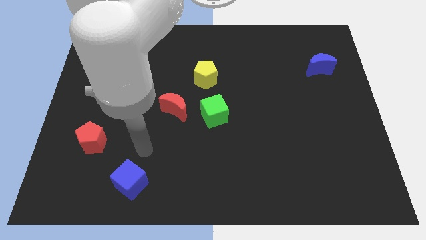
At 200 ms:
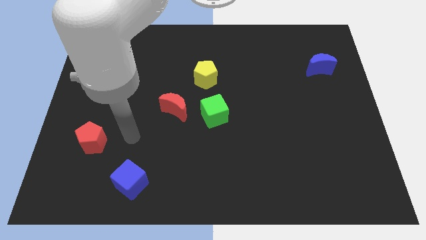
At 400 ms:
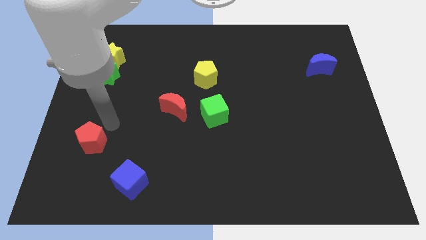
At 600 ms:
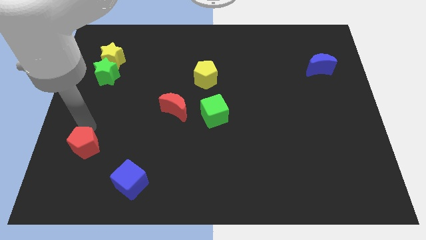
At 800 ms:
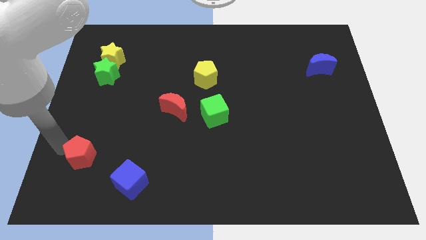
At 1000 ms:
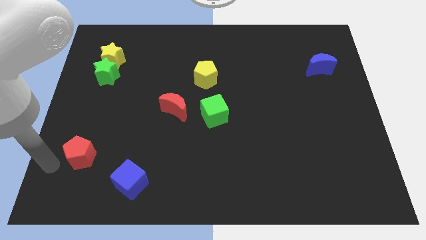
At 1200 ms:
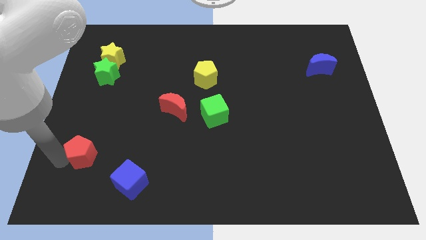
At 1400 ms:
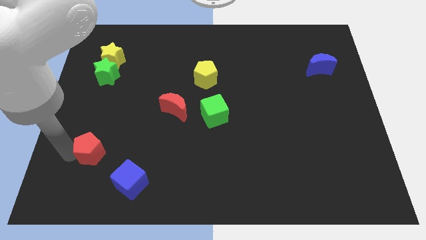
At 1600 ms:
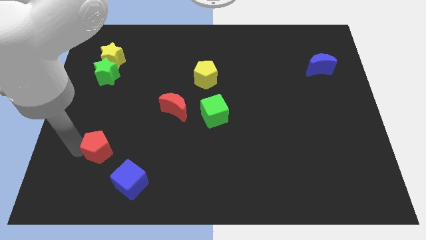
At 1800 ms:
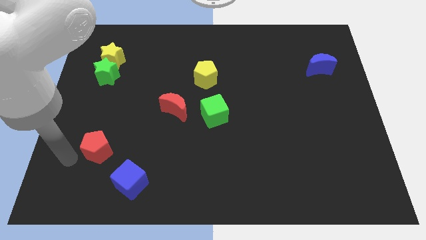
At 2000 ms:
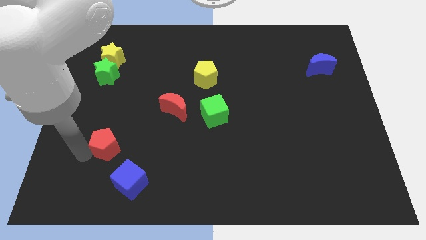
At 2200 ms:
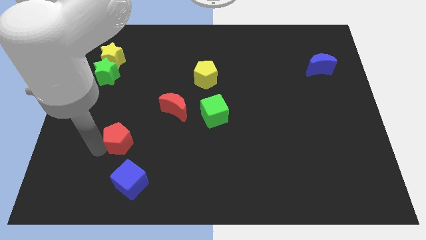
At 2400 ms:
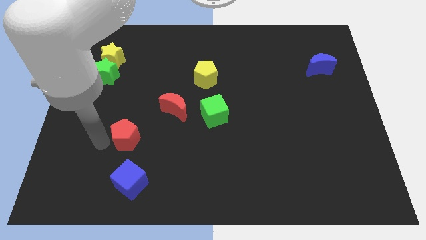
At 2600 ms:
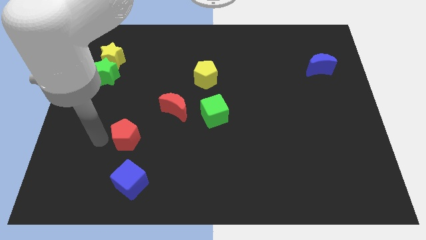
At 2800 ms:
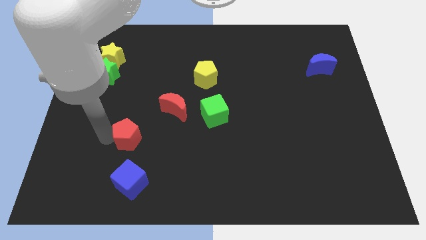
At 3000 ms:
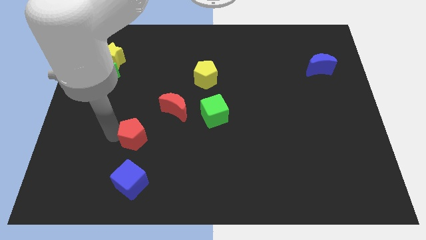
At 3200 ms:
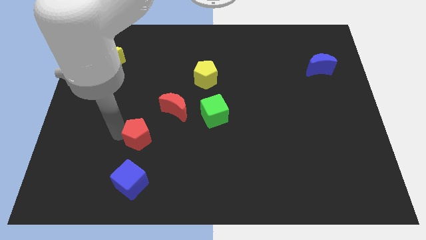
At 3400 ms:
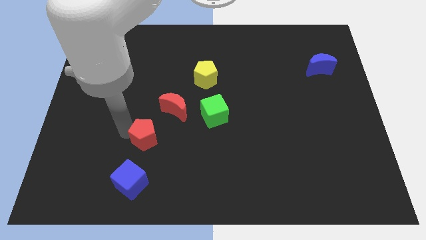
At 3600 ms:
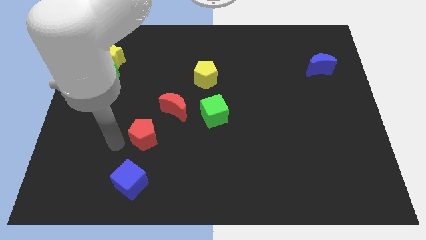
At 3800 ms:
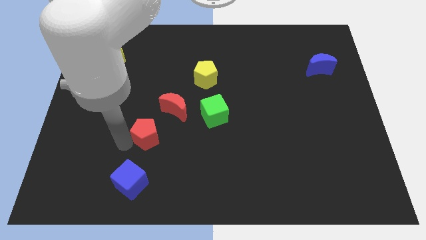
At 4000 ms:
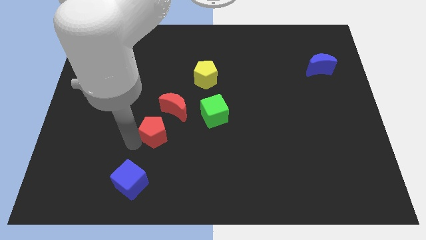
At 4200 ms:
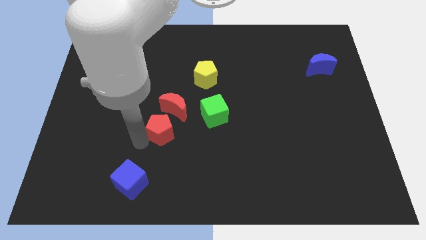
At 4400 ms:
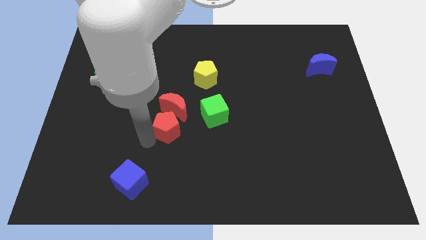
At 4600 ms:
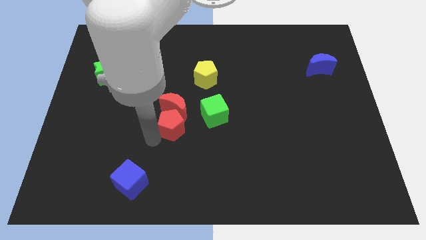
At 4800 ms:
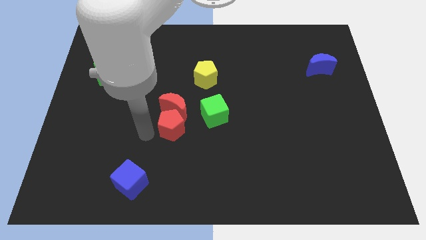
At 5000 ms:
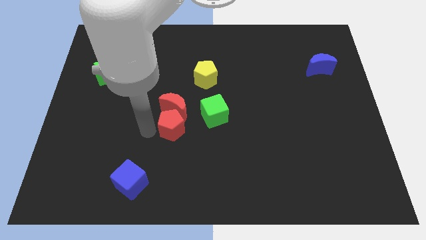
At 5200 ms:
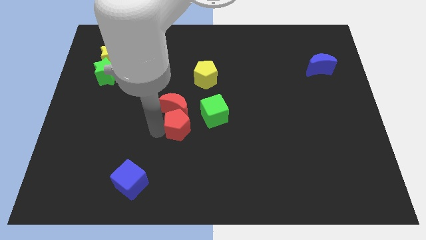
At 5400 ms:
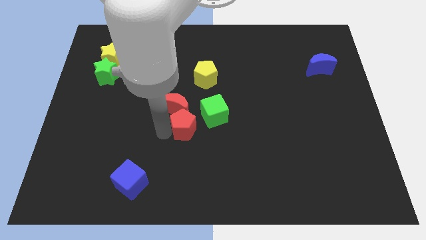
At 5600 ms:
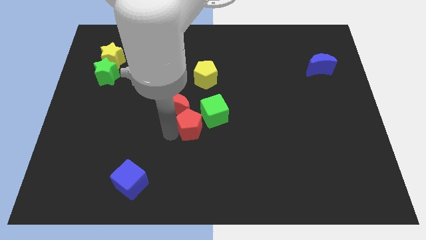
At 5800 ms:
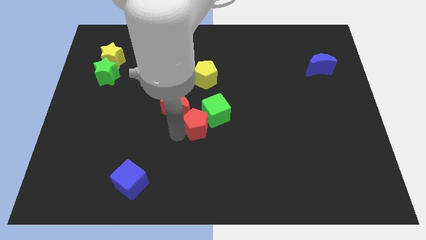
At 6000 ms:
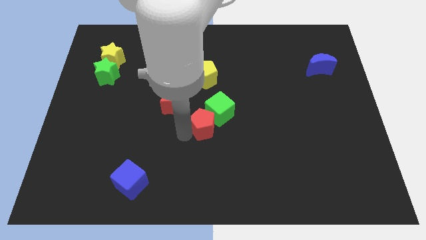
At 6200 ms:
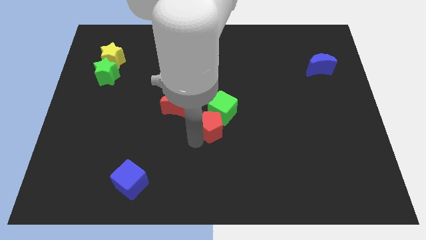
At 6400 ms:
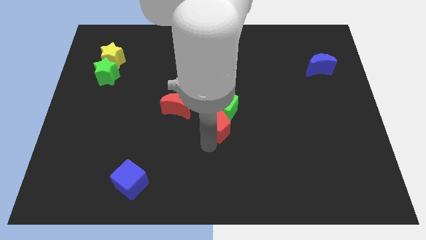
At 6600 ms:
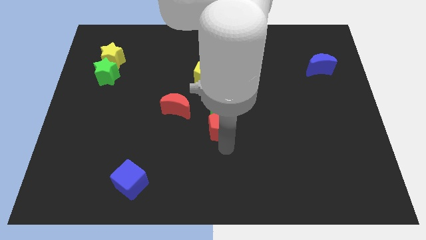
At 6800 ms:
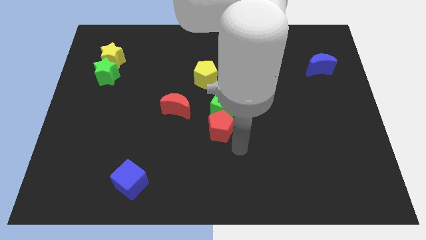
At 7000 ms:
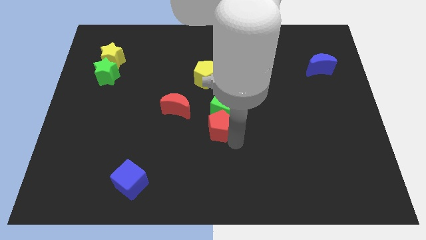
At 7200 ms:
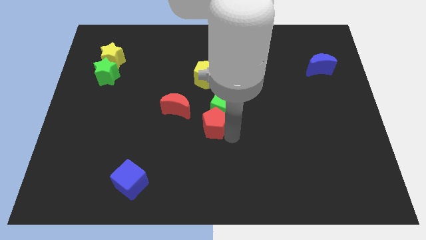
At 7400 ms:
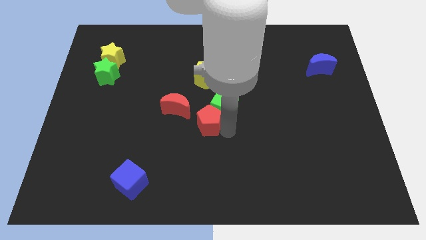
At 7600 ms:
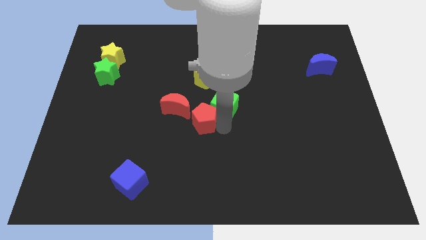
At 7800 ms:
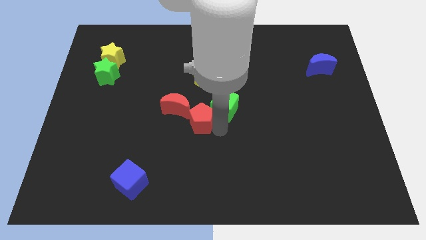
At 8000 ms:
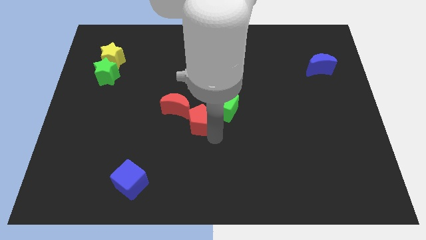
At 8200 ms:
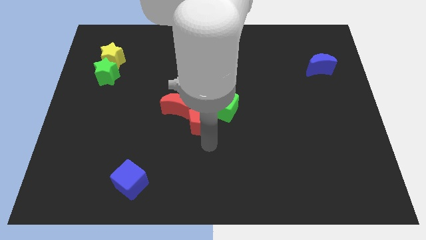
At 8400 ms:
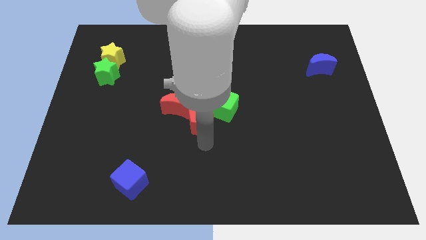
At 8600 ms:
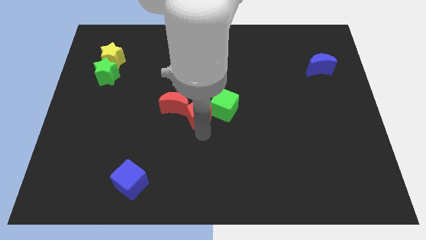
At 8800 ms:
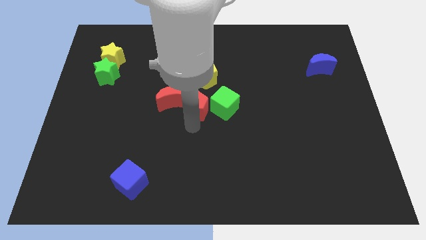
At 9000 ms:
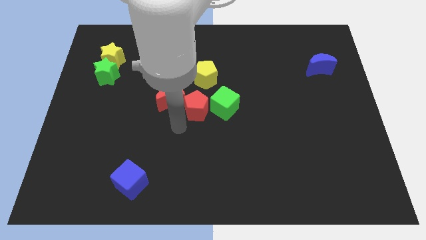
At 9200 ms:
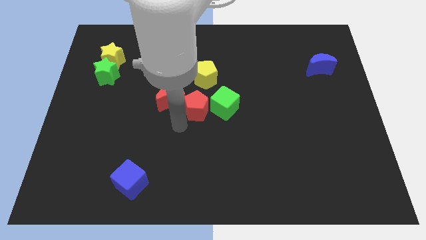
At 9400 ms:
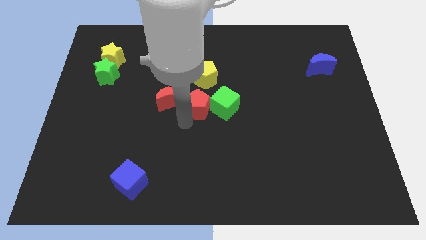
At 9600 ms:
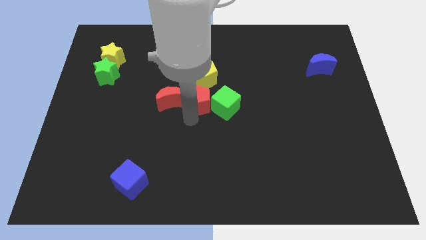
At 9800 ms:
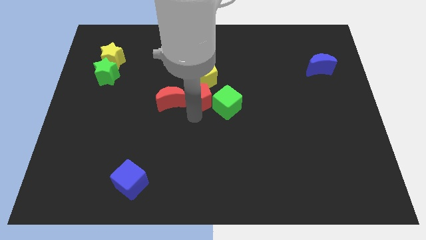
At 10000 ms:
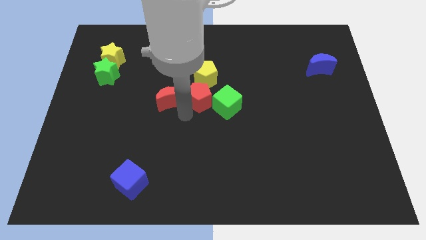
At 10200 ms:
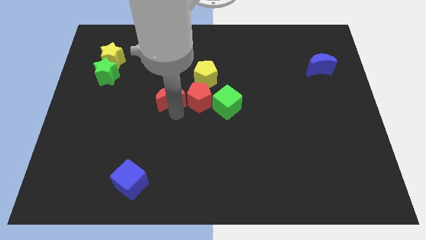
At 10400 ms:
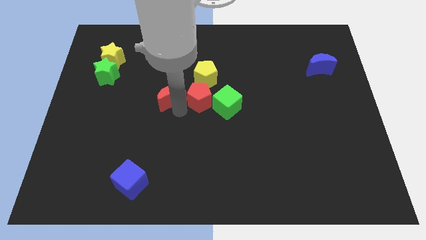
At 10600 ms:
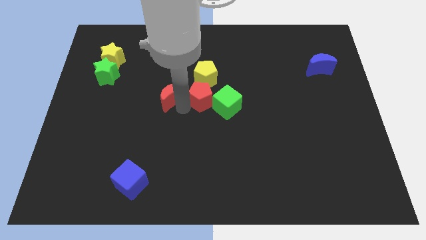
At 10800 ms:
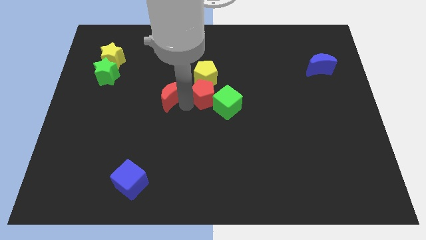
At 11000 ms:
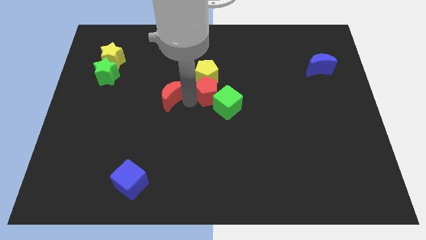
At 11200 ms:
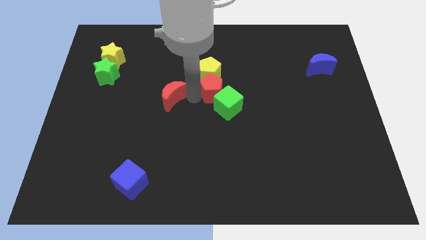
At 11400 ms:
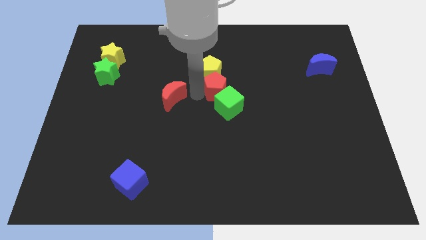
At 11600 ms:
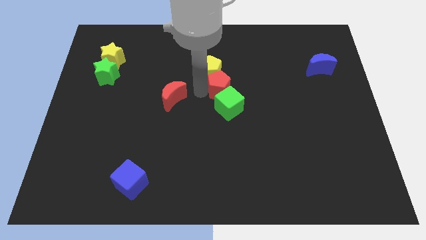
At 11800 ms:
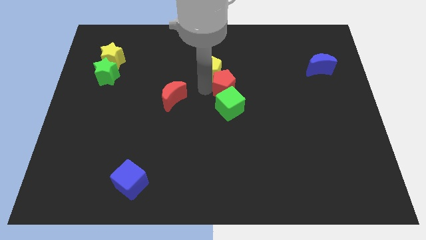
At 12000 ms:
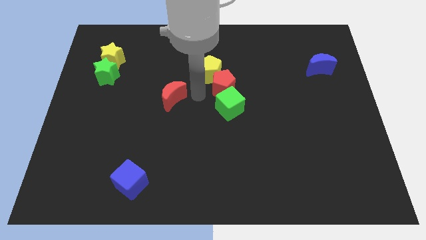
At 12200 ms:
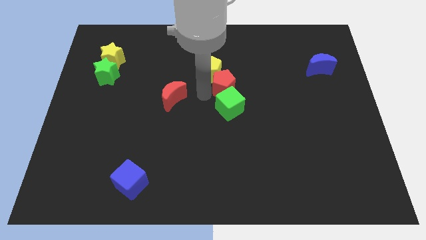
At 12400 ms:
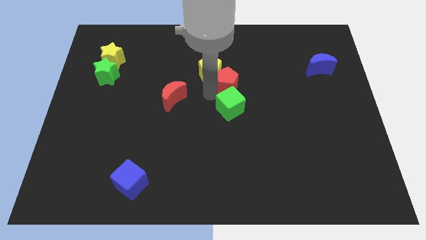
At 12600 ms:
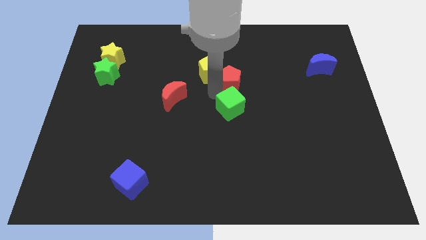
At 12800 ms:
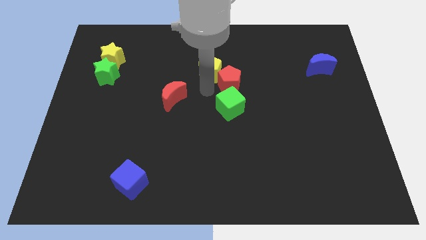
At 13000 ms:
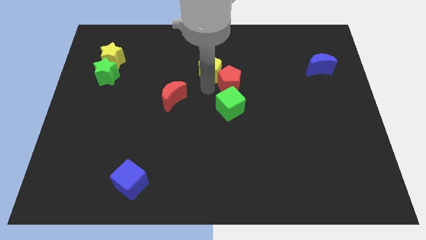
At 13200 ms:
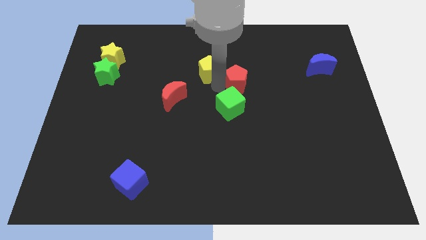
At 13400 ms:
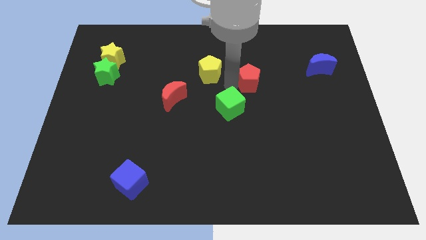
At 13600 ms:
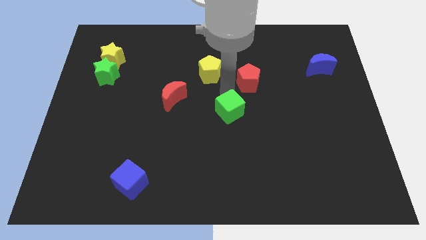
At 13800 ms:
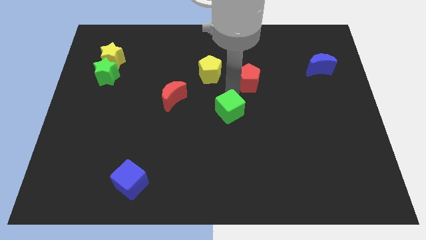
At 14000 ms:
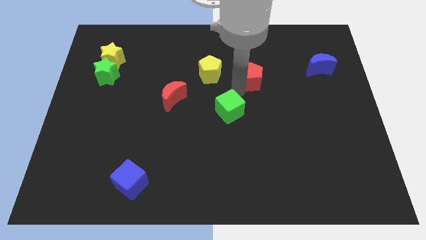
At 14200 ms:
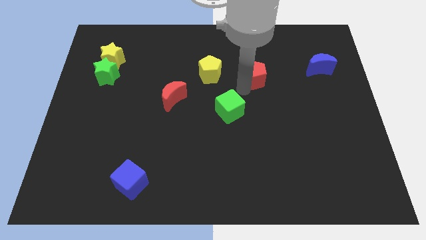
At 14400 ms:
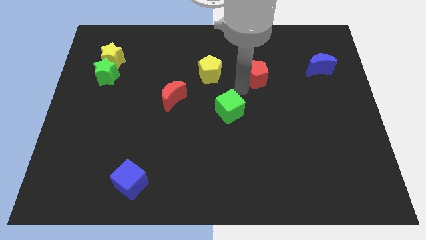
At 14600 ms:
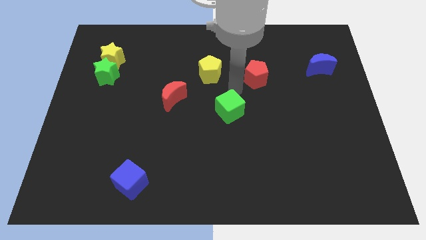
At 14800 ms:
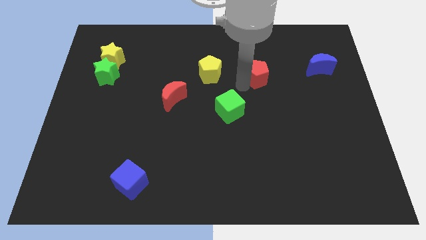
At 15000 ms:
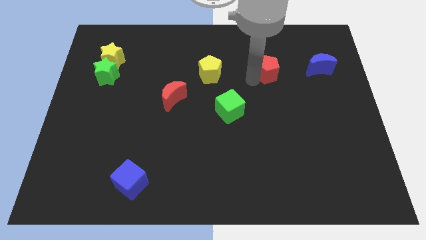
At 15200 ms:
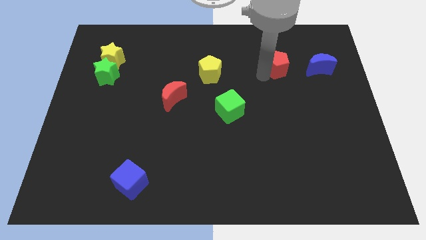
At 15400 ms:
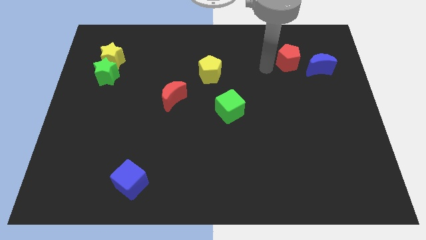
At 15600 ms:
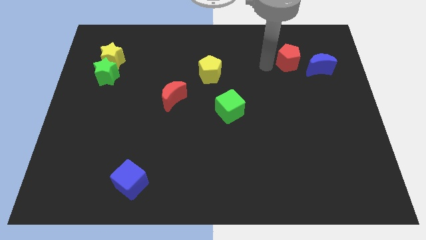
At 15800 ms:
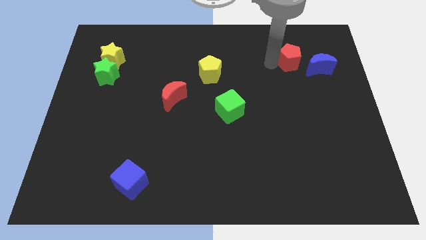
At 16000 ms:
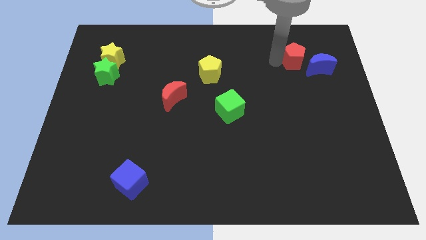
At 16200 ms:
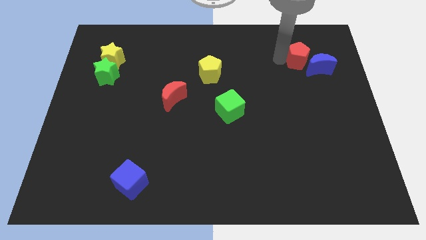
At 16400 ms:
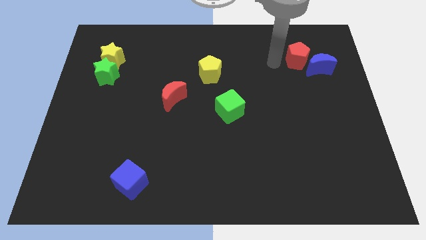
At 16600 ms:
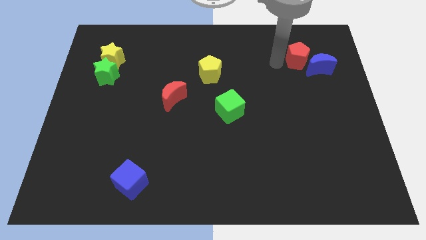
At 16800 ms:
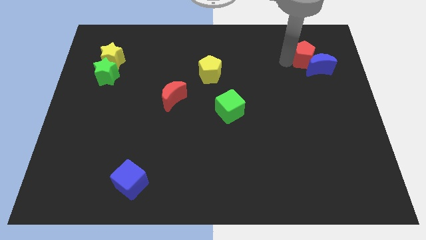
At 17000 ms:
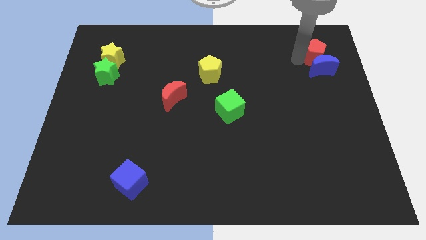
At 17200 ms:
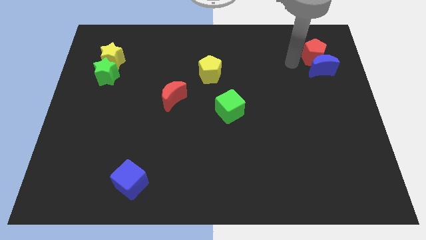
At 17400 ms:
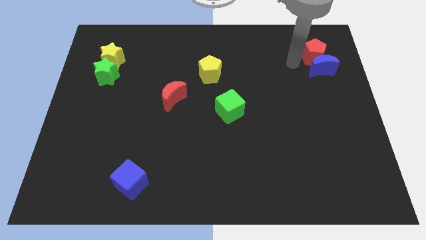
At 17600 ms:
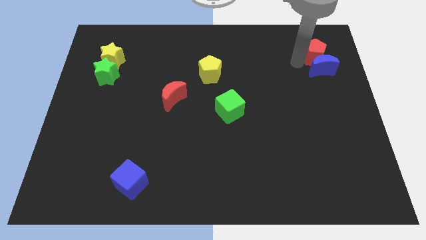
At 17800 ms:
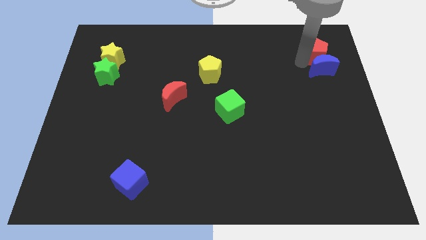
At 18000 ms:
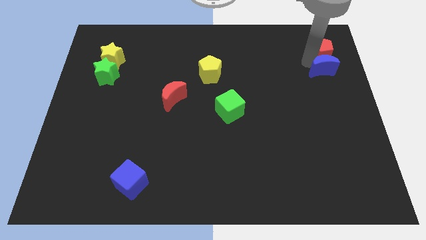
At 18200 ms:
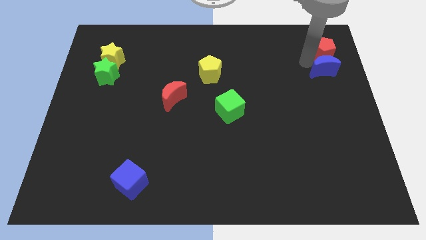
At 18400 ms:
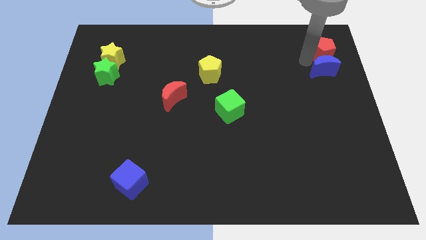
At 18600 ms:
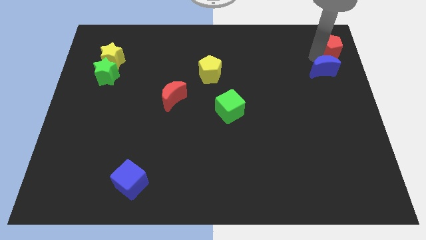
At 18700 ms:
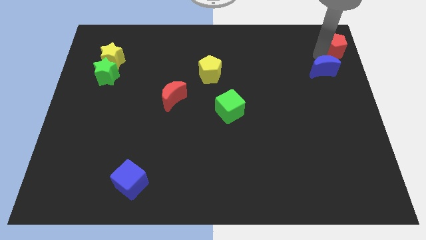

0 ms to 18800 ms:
slide the red pentagon to the top right corner
